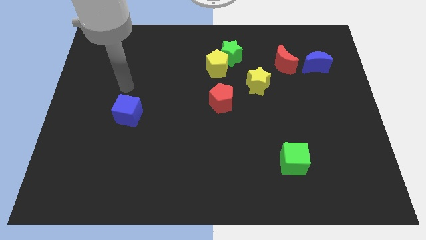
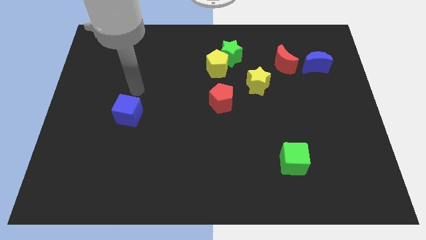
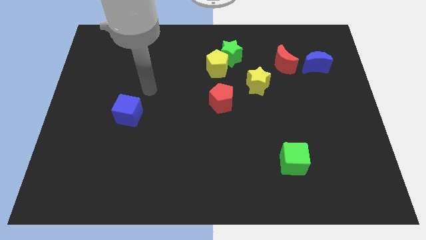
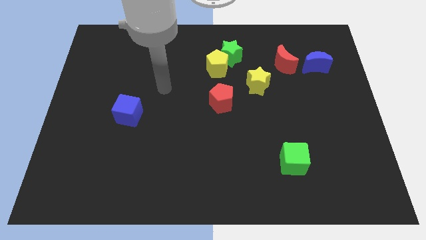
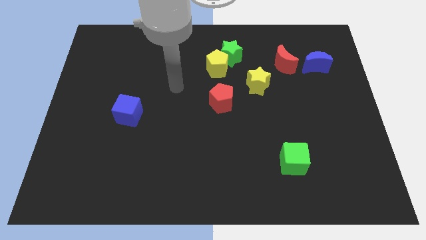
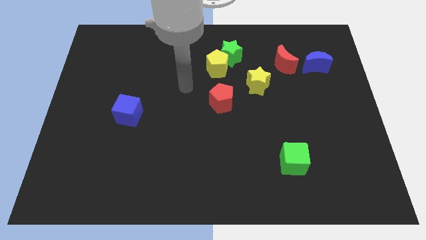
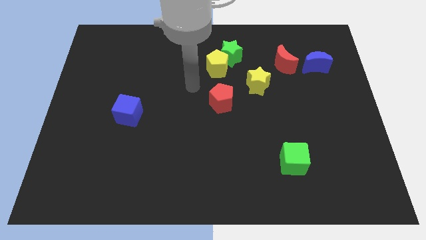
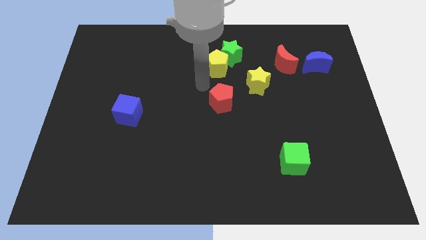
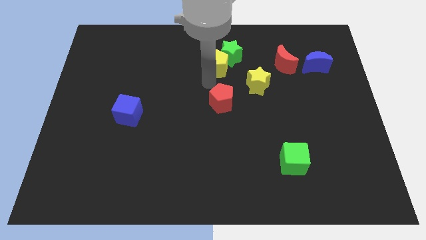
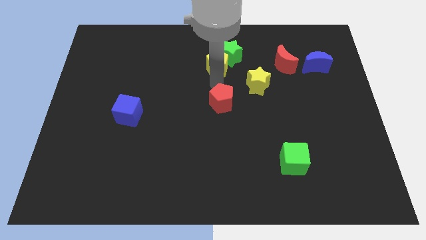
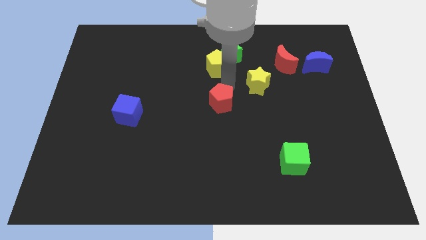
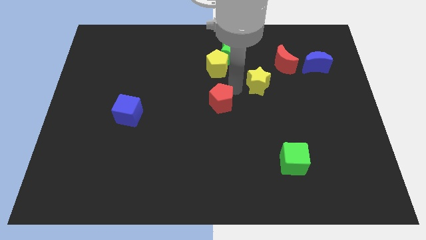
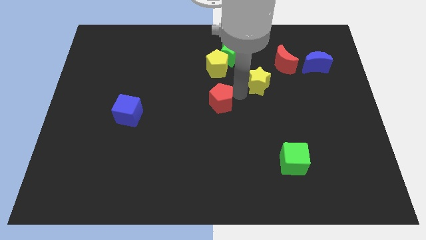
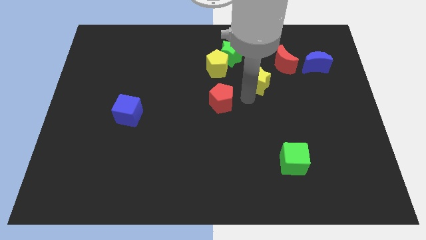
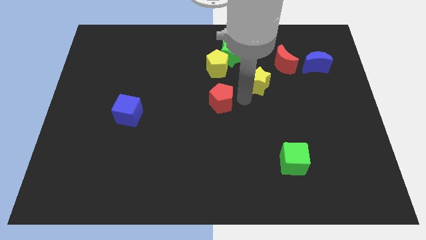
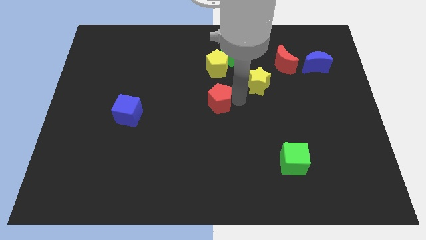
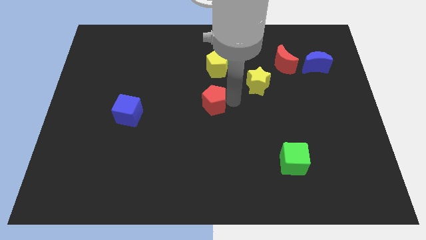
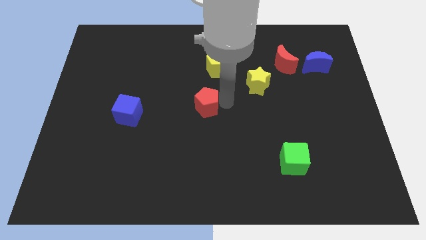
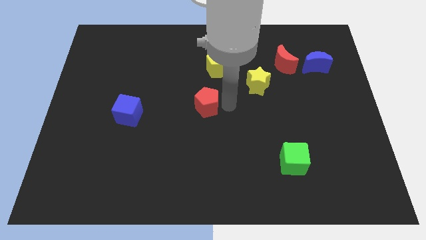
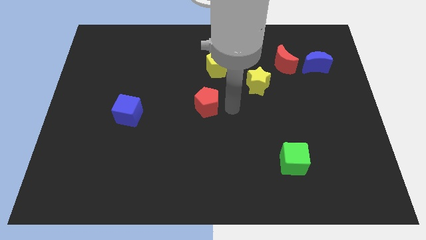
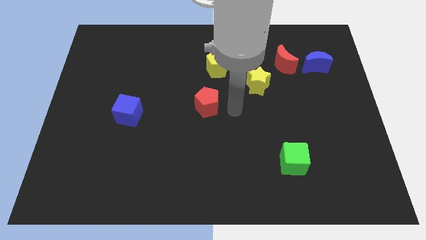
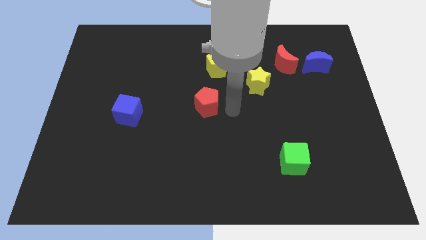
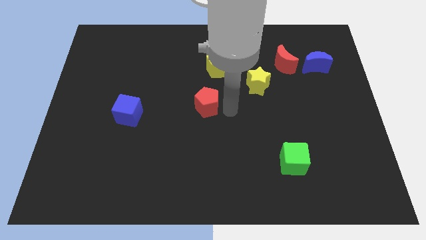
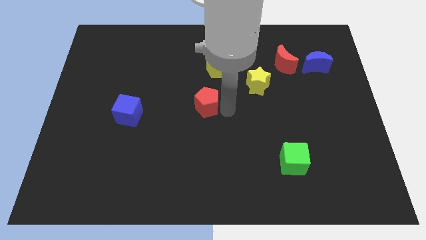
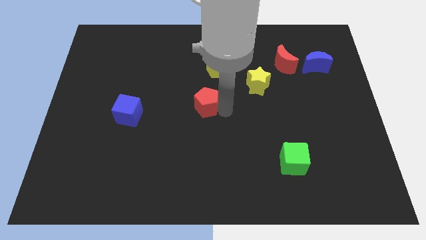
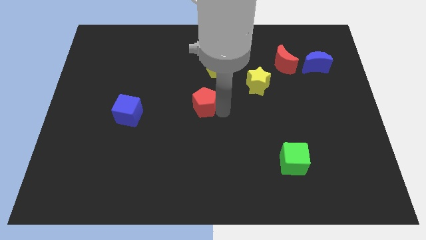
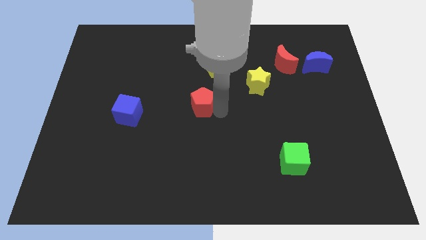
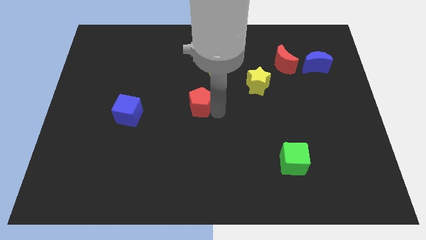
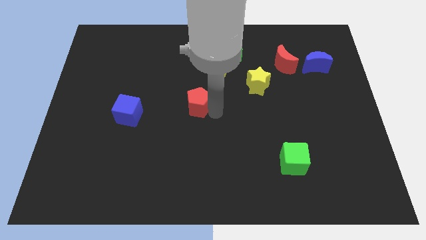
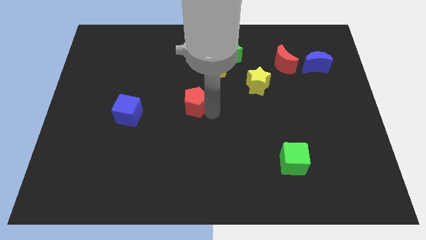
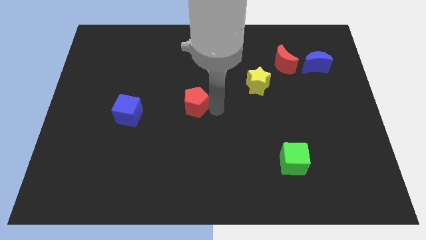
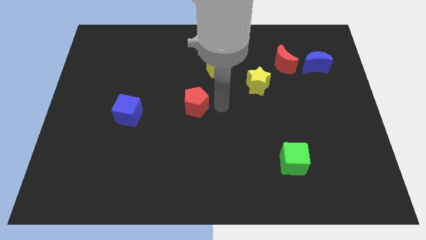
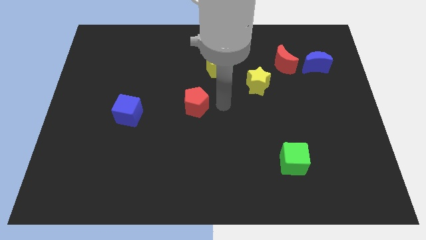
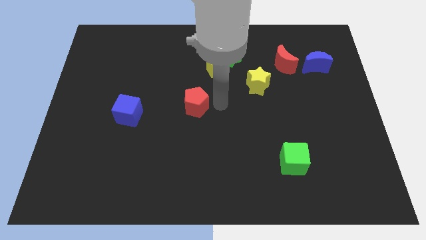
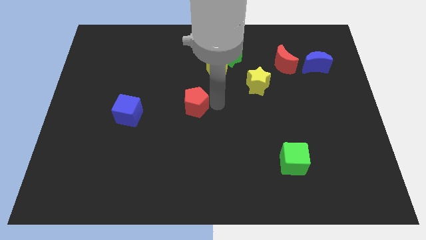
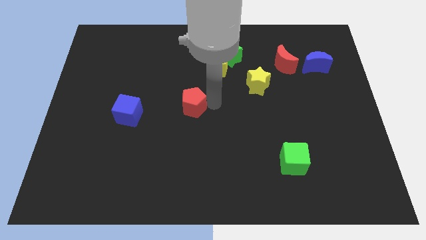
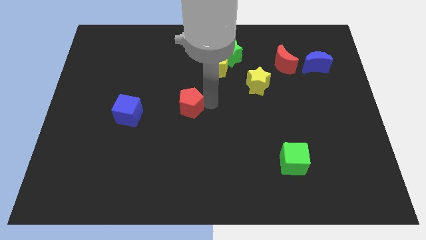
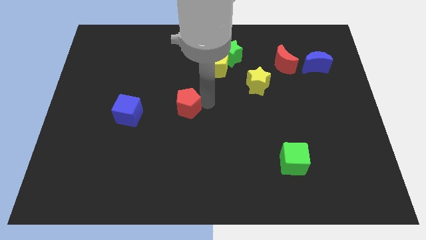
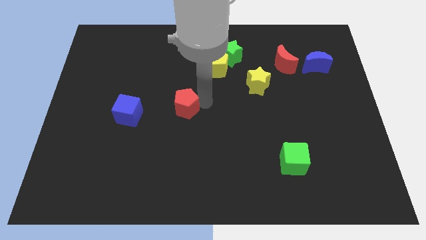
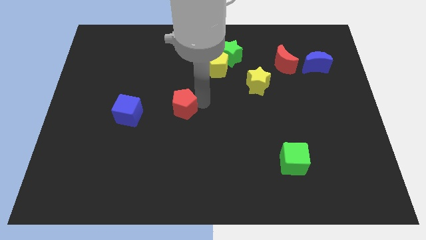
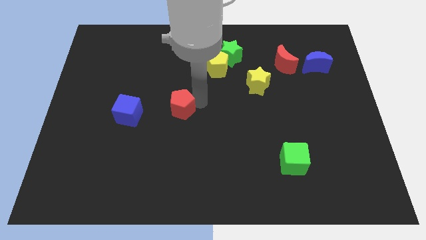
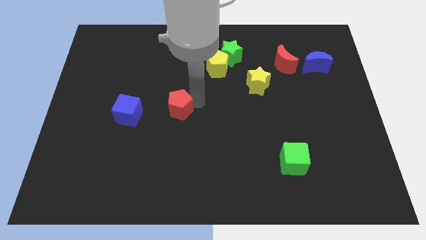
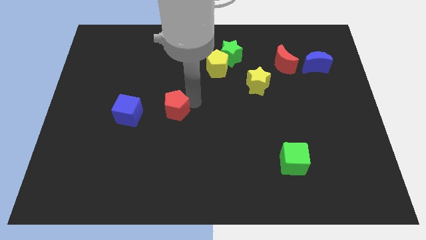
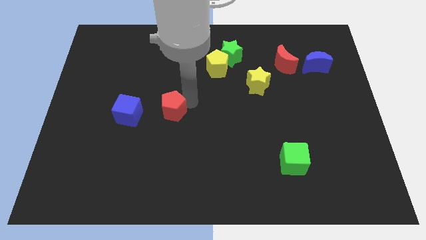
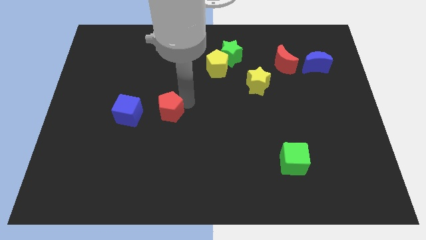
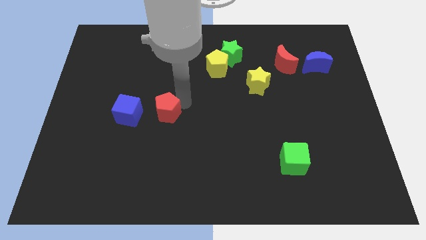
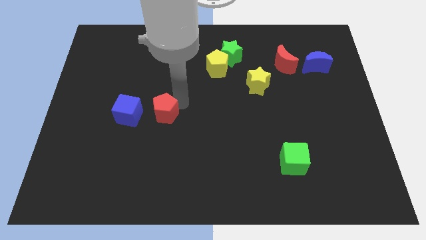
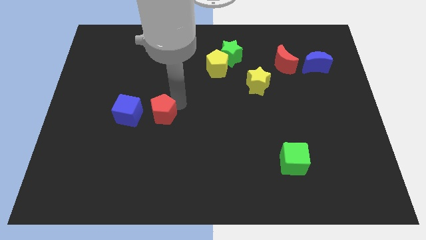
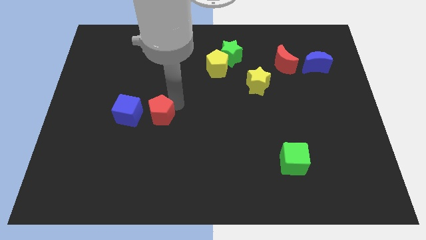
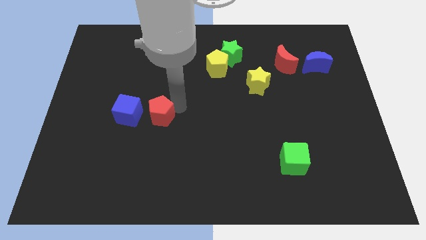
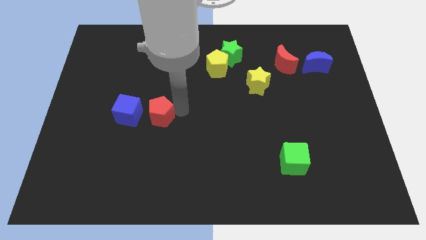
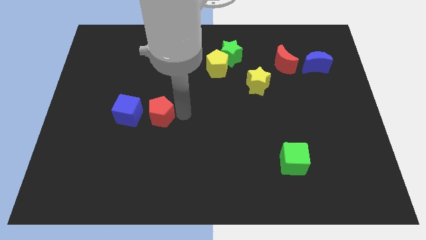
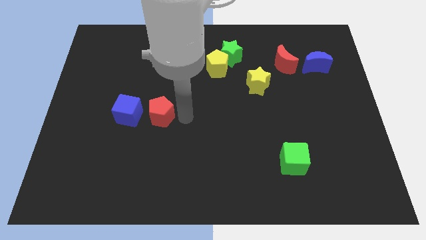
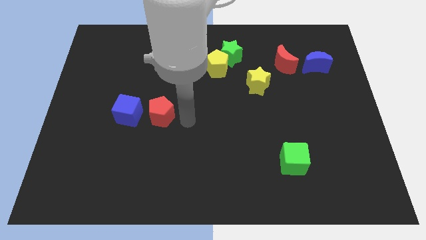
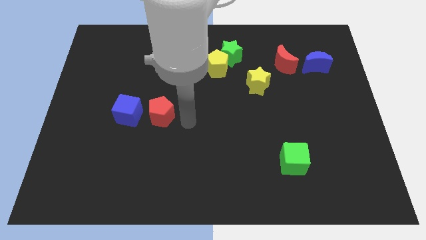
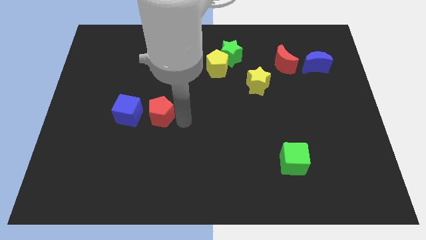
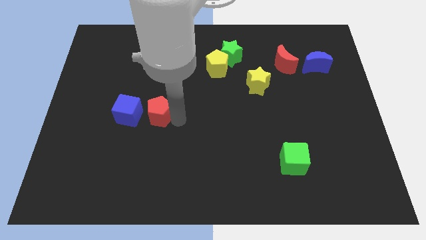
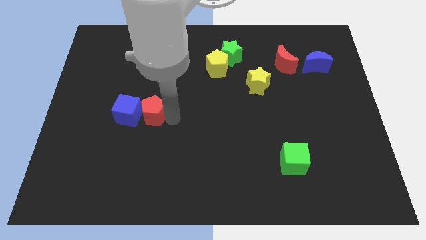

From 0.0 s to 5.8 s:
slide the red pentagon next to the blue cube

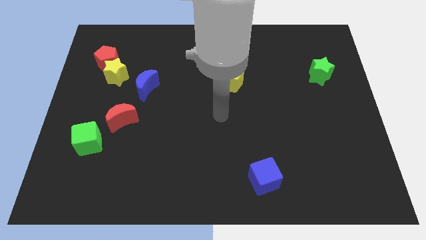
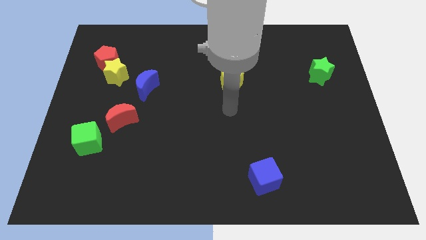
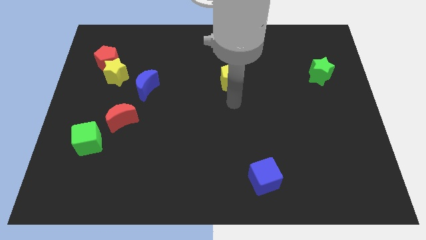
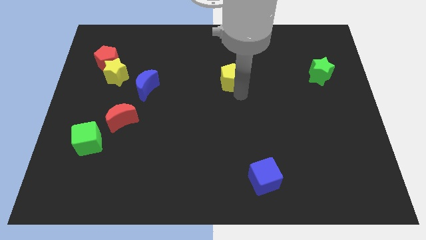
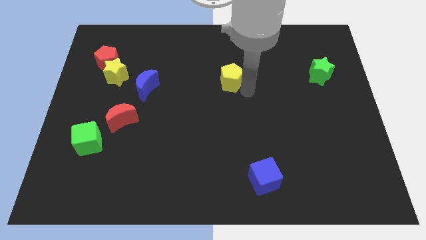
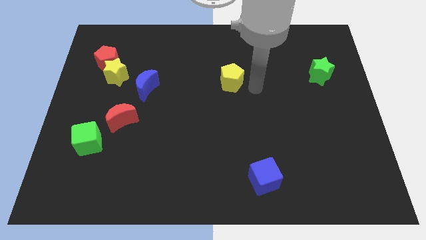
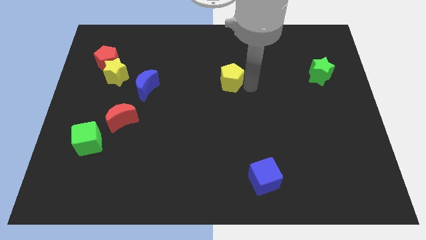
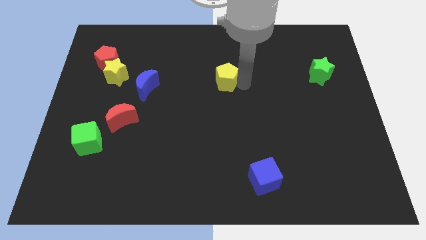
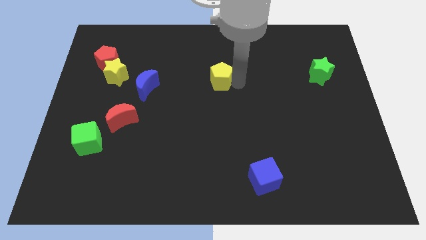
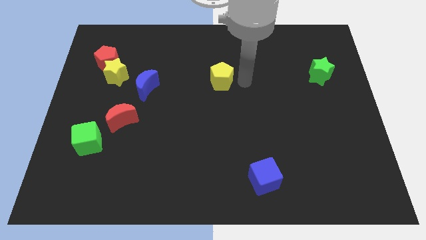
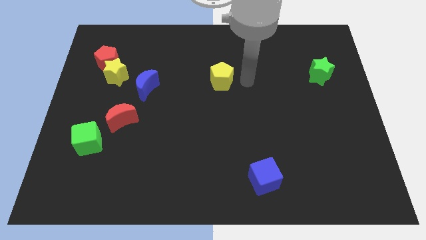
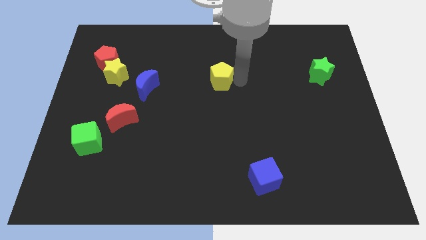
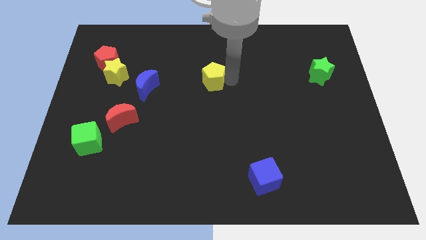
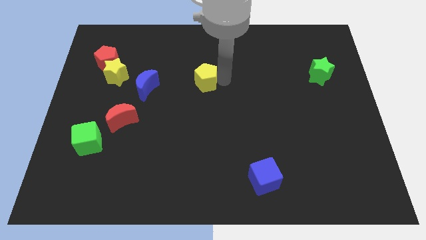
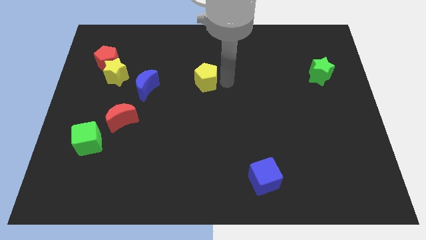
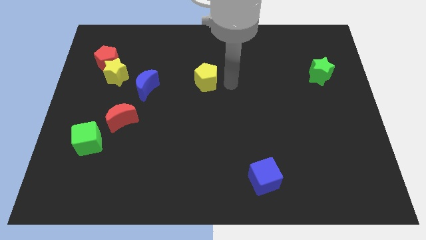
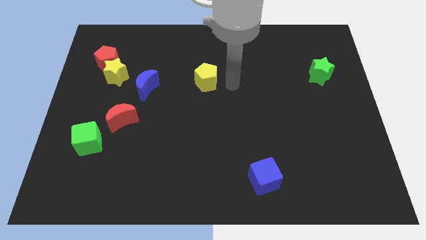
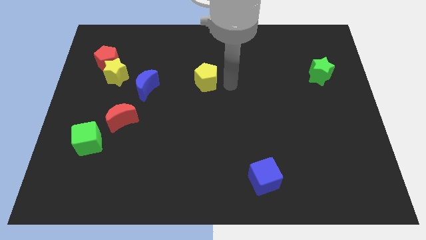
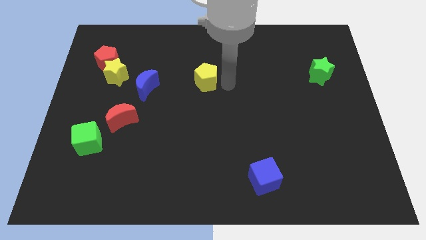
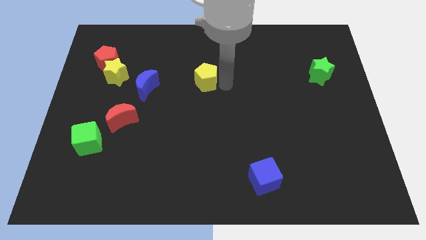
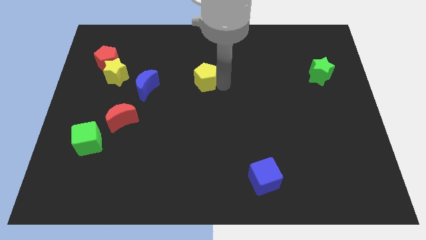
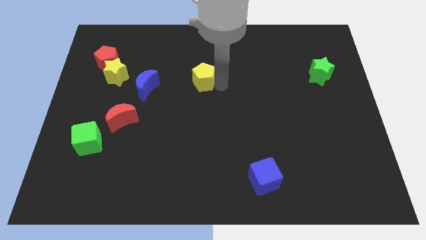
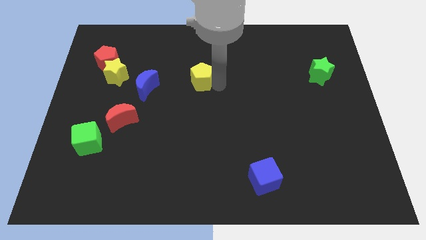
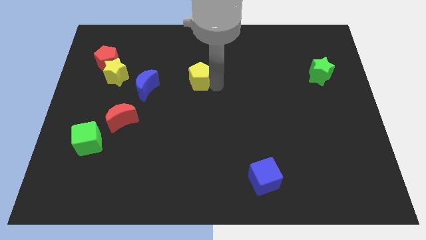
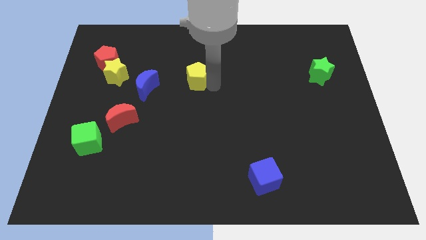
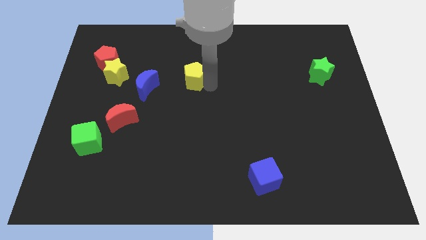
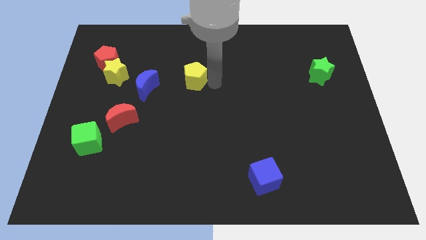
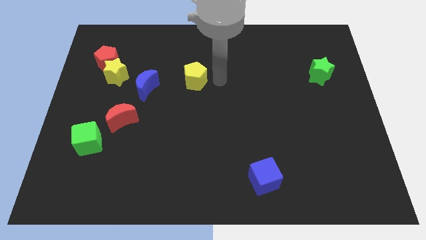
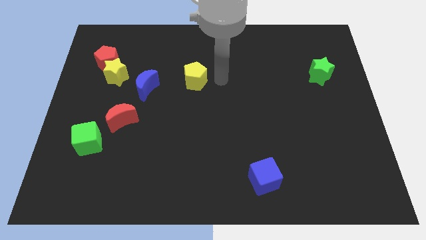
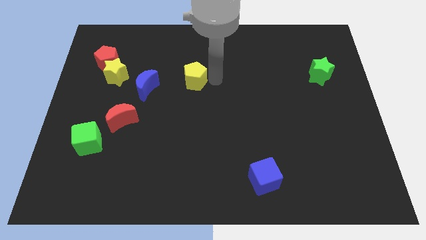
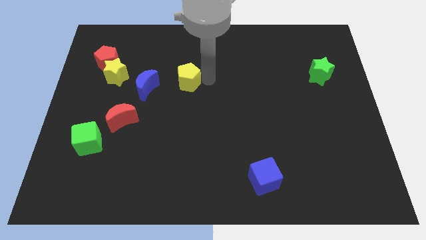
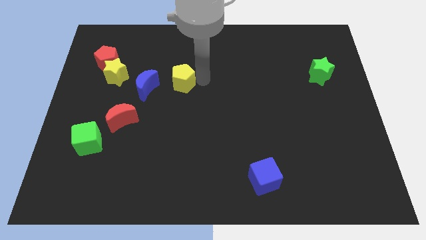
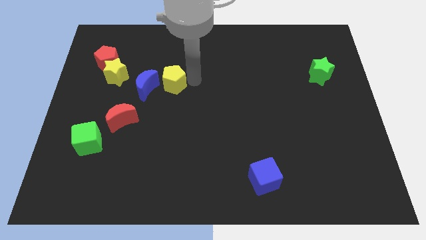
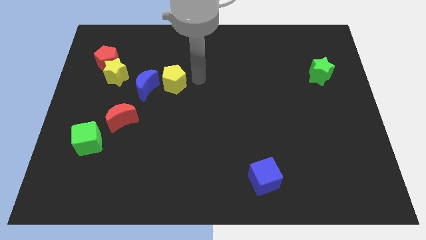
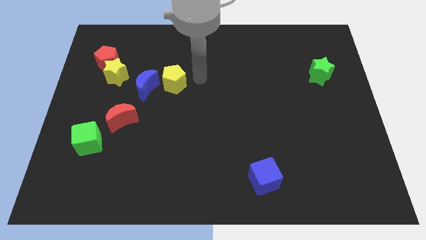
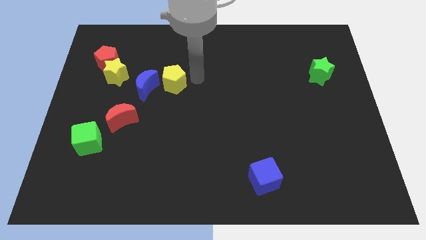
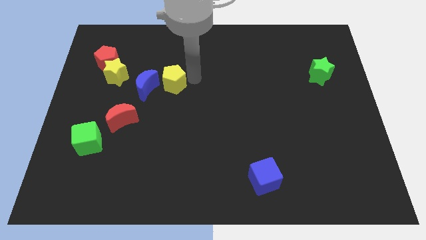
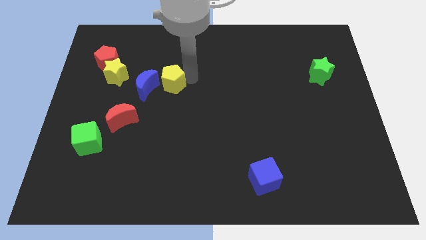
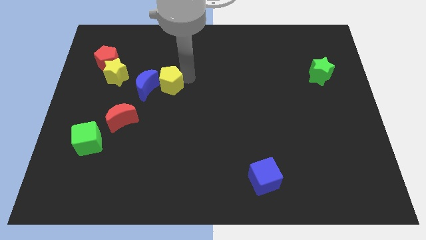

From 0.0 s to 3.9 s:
slide the yellow pentagon towards the blue moon
